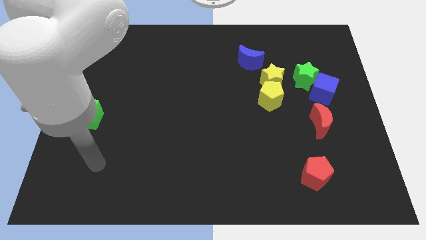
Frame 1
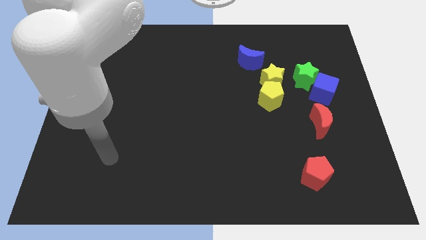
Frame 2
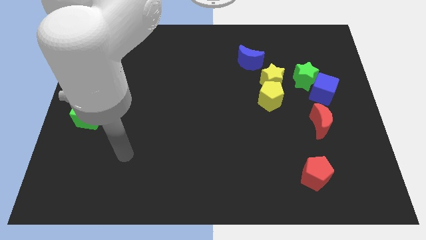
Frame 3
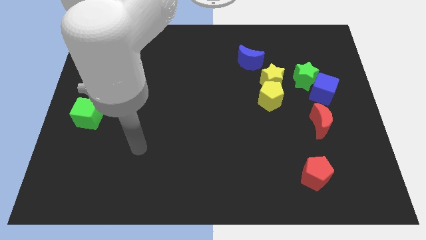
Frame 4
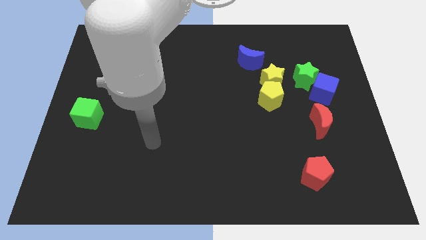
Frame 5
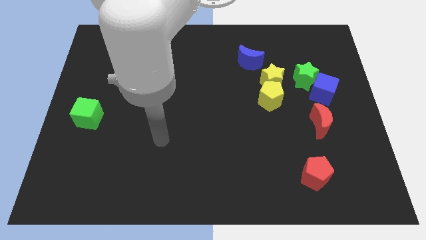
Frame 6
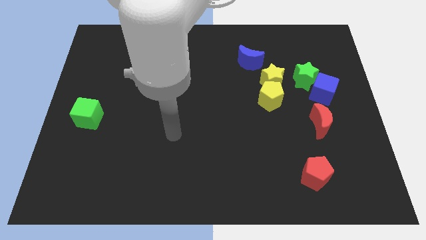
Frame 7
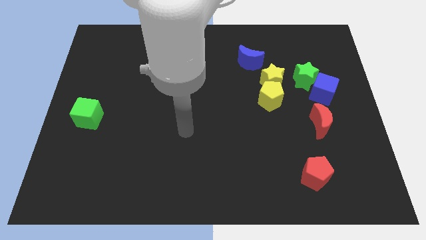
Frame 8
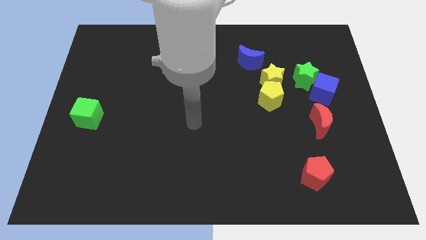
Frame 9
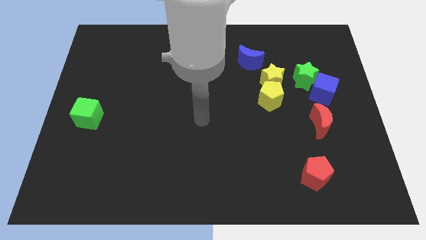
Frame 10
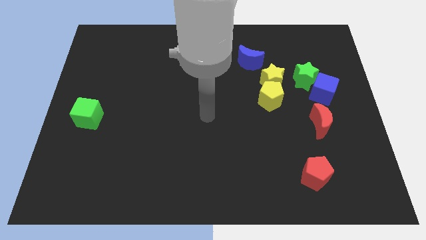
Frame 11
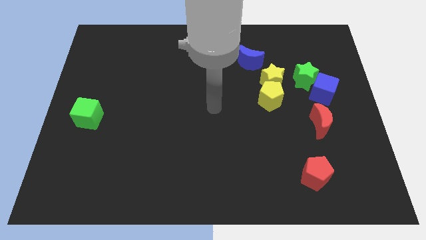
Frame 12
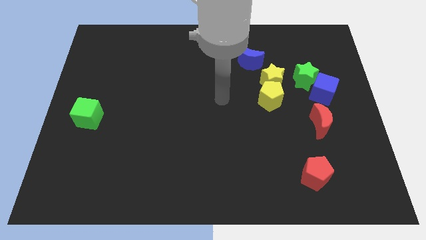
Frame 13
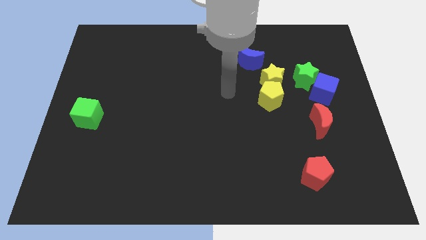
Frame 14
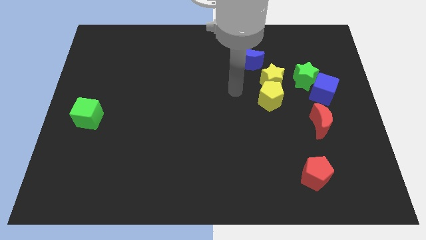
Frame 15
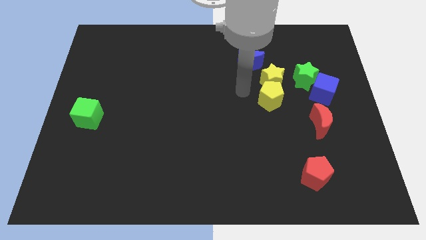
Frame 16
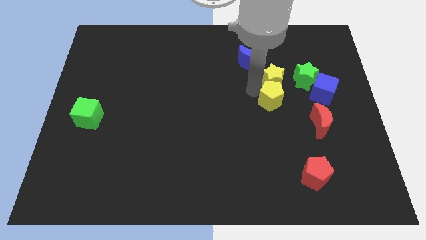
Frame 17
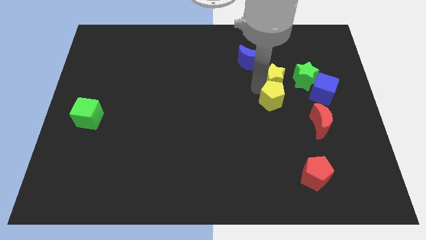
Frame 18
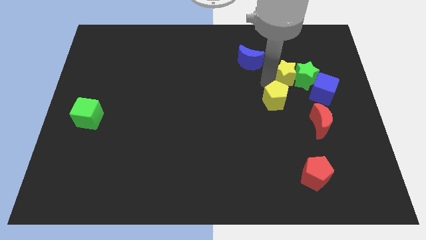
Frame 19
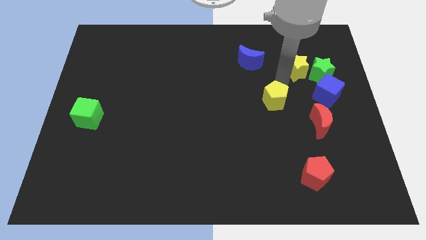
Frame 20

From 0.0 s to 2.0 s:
separate the yellow pentagon from the yellow star

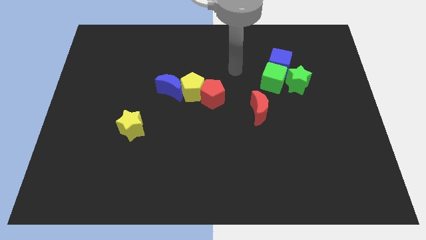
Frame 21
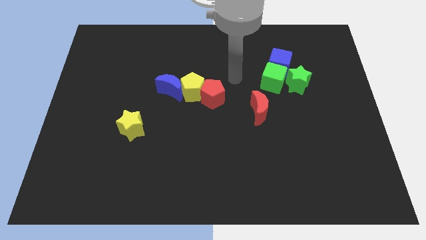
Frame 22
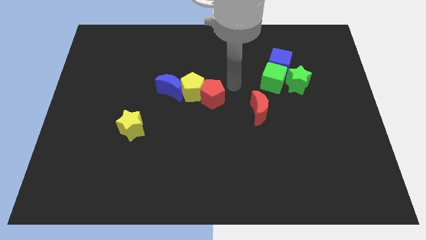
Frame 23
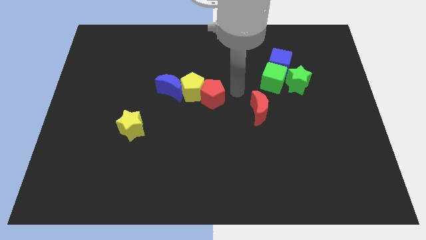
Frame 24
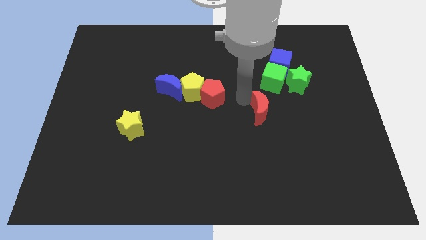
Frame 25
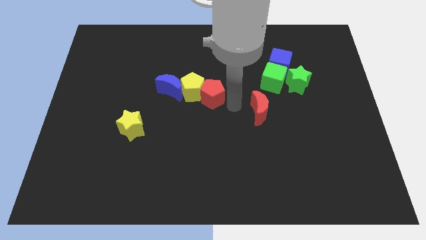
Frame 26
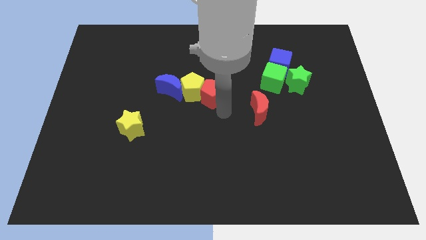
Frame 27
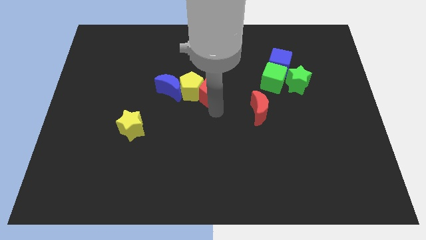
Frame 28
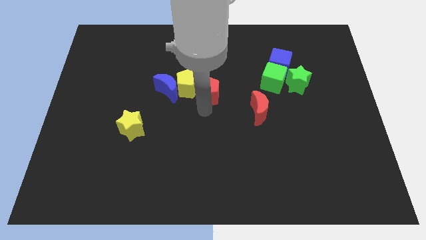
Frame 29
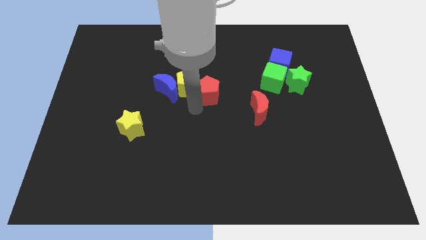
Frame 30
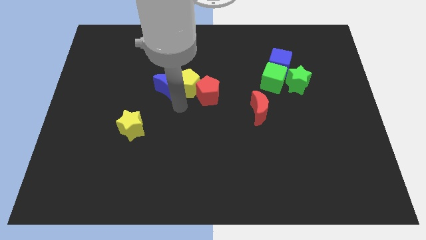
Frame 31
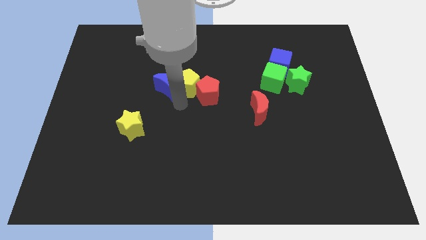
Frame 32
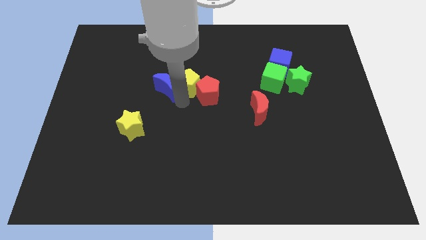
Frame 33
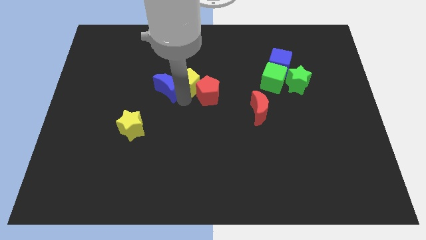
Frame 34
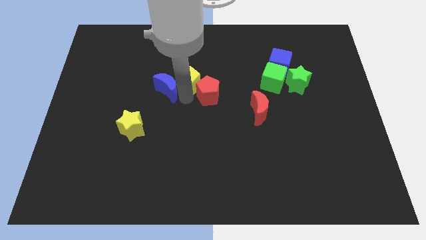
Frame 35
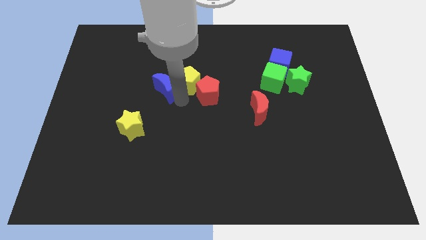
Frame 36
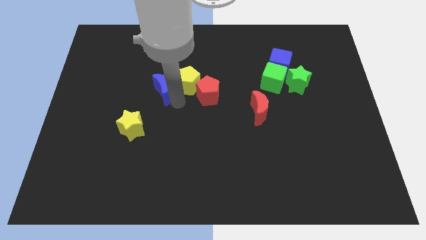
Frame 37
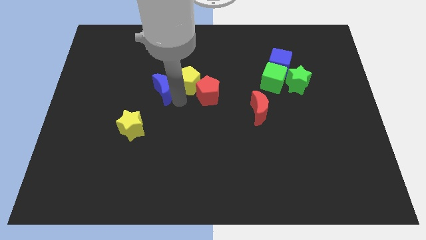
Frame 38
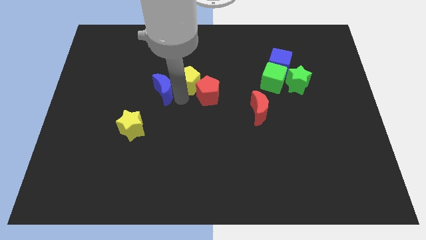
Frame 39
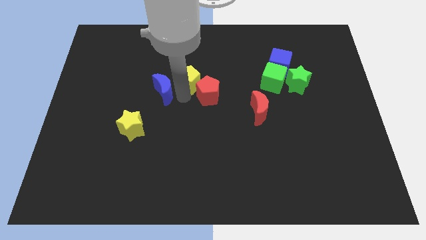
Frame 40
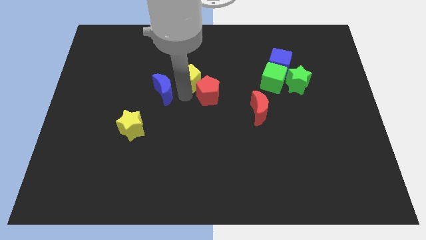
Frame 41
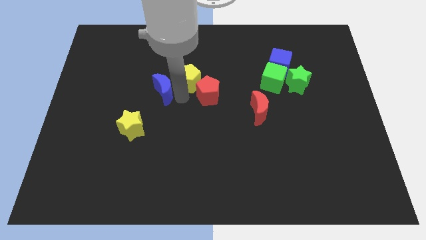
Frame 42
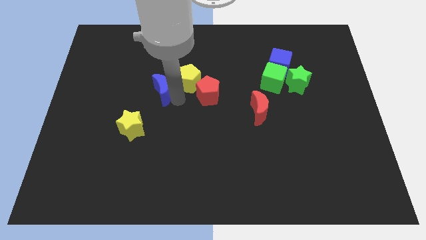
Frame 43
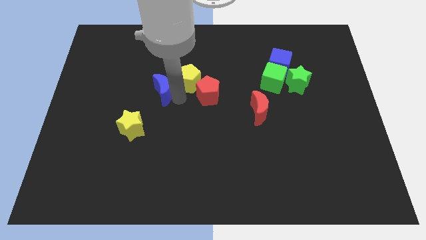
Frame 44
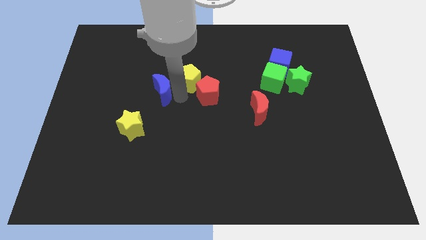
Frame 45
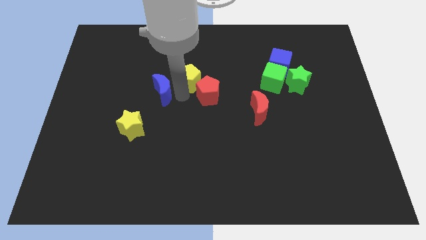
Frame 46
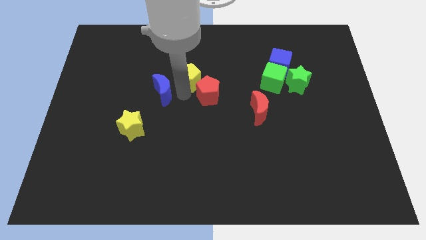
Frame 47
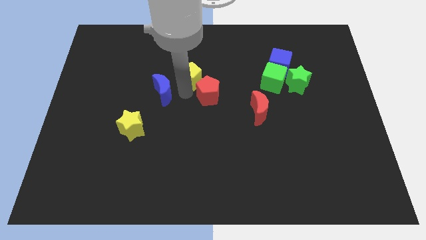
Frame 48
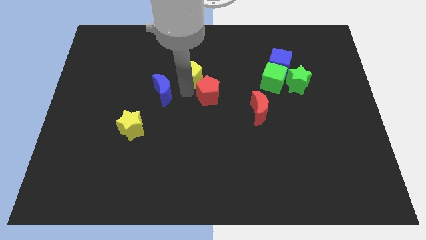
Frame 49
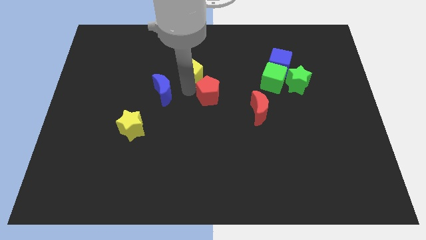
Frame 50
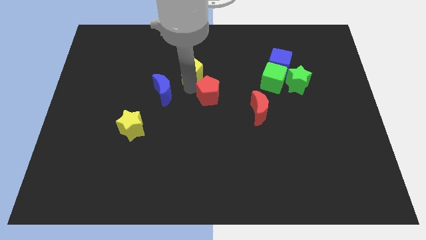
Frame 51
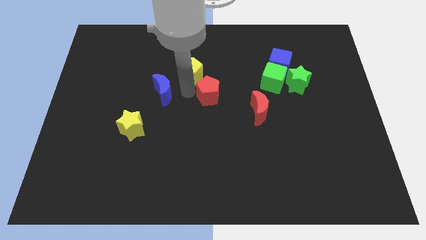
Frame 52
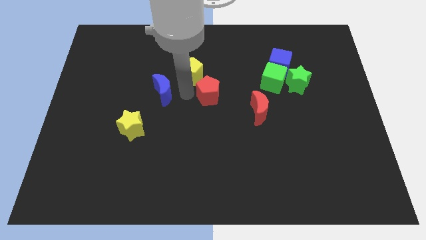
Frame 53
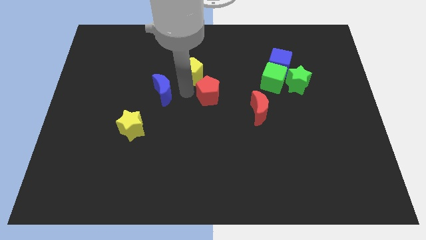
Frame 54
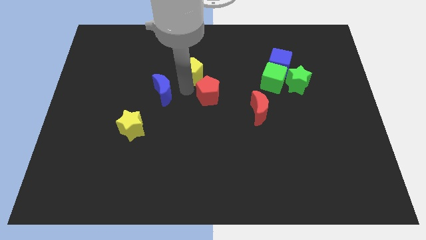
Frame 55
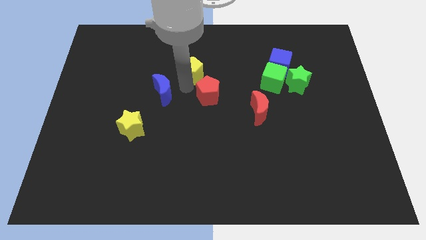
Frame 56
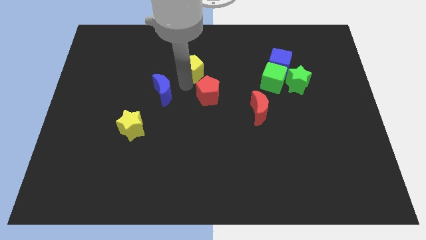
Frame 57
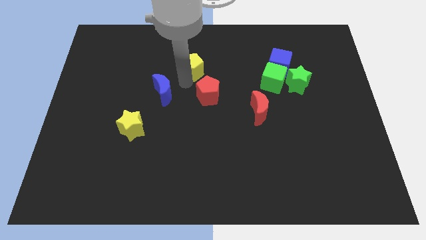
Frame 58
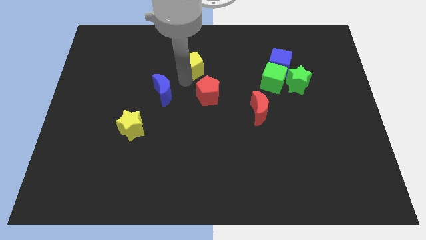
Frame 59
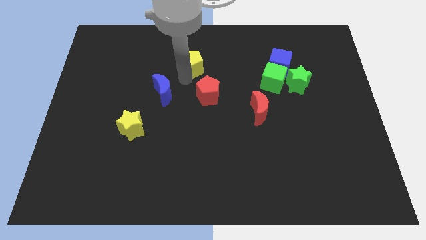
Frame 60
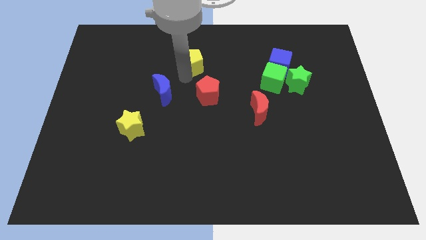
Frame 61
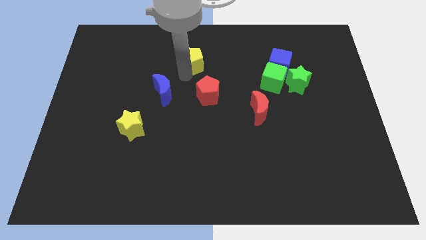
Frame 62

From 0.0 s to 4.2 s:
move the yellow pentagon away from the blue moon and red pentagon

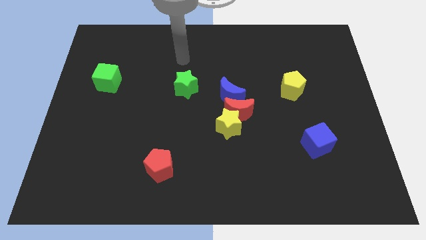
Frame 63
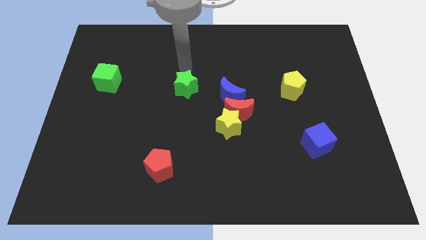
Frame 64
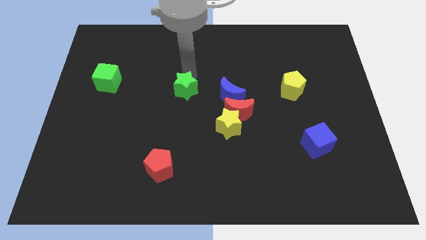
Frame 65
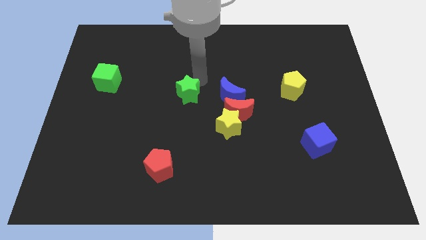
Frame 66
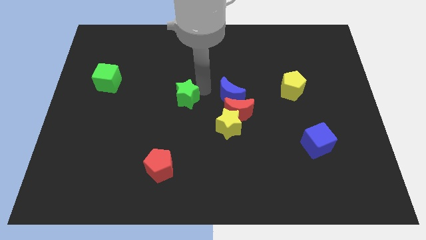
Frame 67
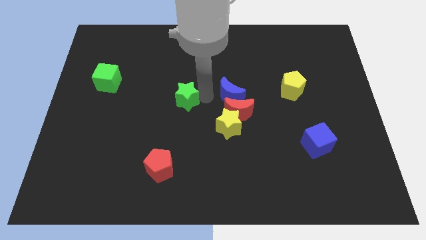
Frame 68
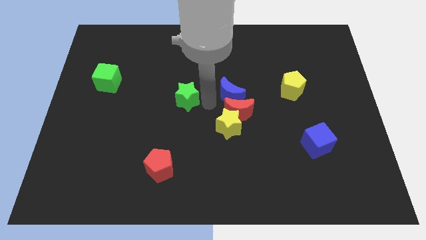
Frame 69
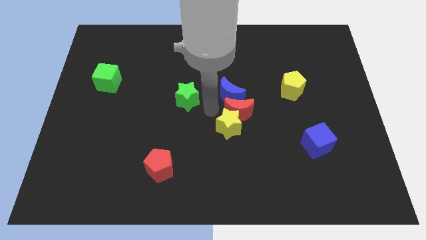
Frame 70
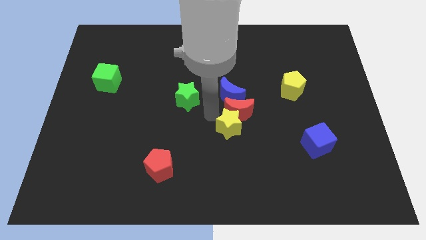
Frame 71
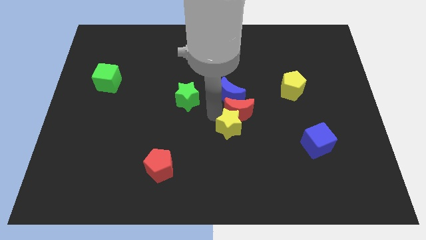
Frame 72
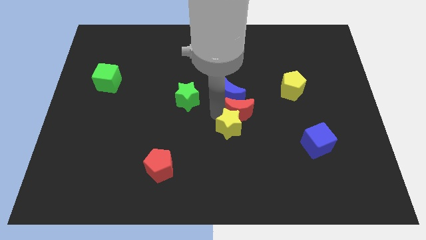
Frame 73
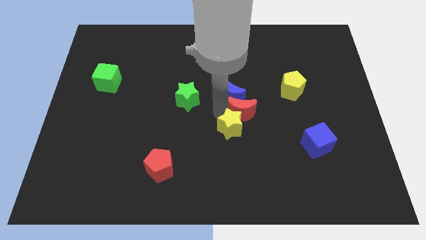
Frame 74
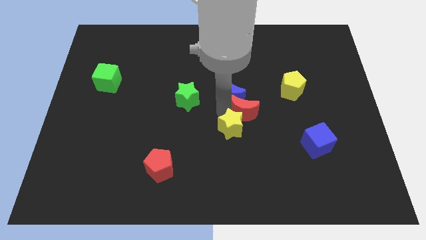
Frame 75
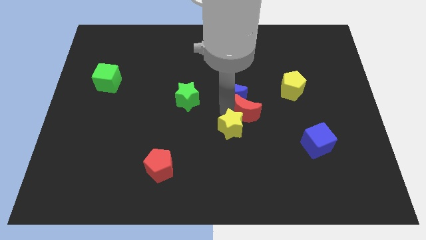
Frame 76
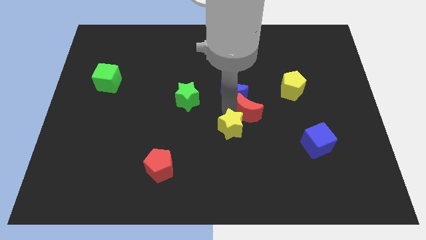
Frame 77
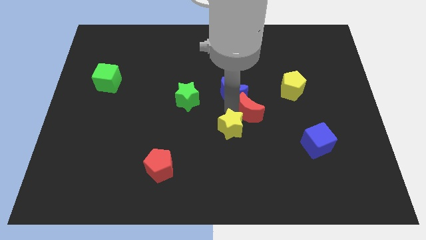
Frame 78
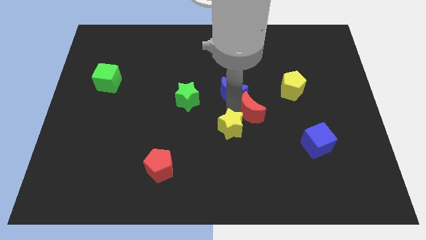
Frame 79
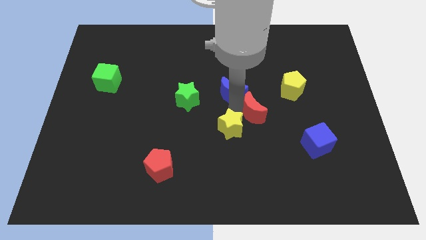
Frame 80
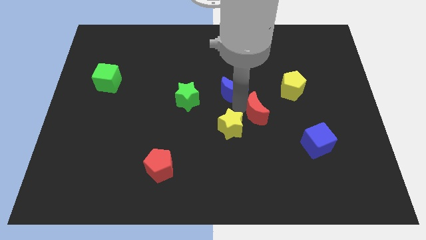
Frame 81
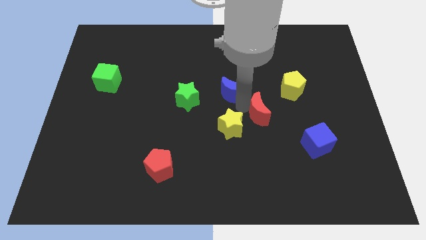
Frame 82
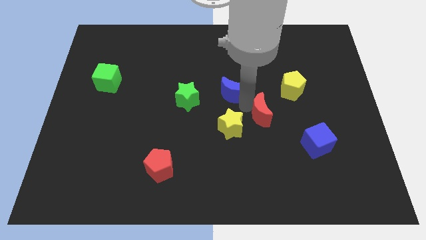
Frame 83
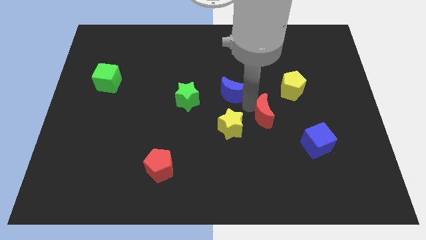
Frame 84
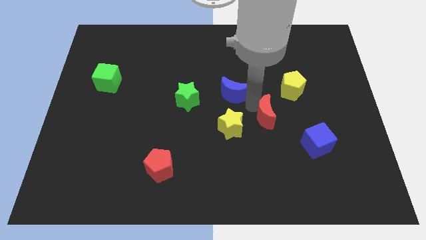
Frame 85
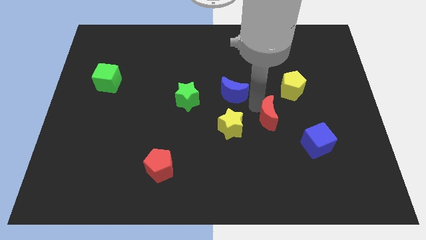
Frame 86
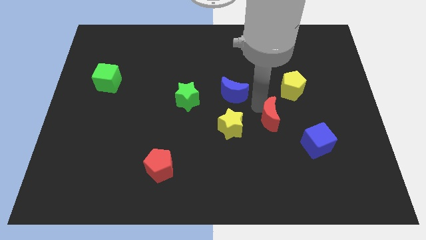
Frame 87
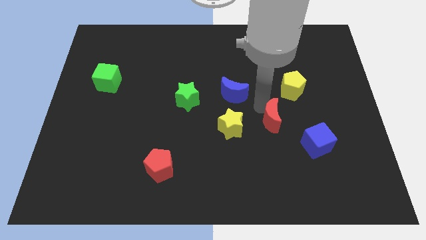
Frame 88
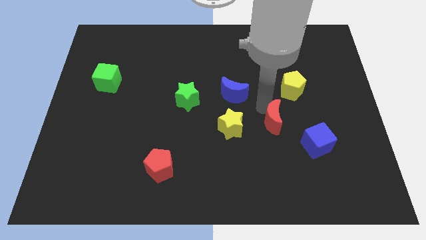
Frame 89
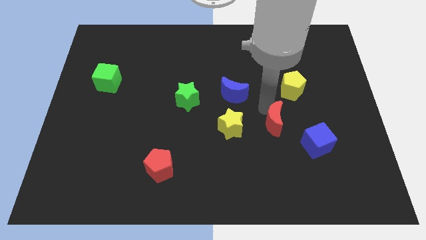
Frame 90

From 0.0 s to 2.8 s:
separate the red moon from the yellow star and blue moon

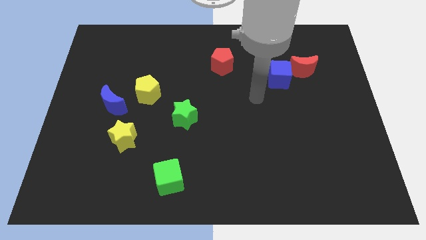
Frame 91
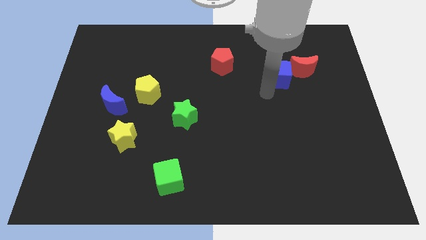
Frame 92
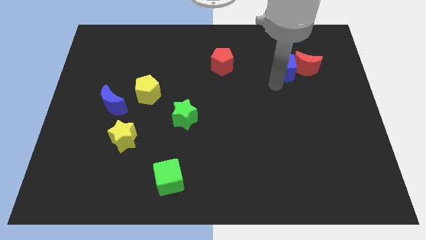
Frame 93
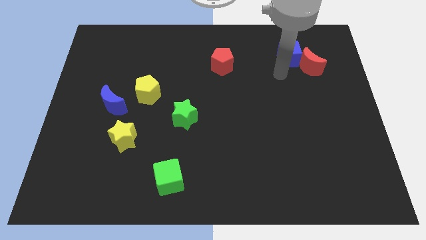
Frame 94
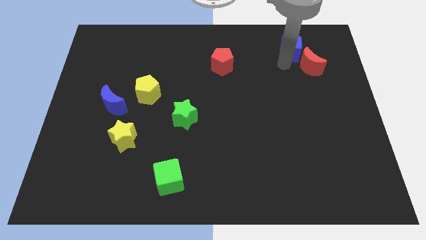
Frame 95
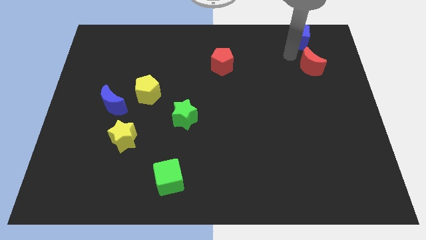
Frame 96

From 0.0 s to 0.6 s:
move the red moon away from the blue cube
